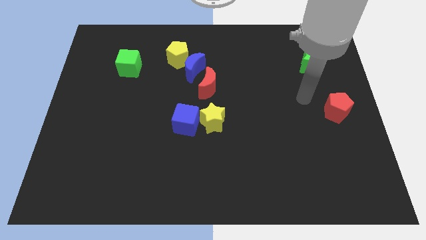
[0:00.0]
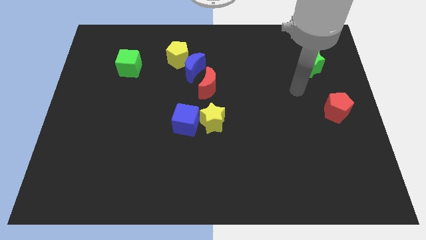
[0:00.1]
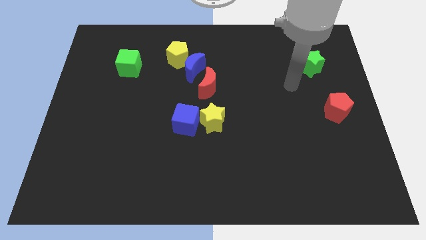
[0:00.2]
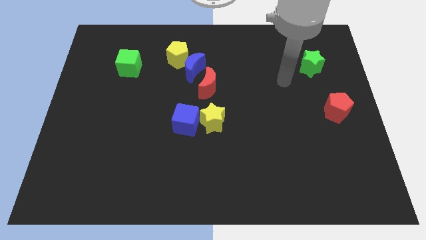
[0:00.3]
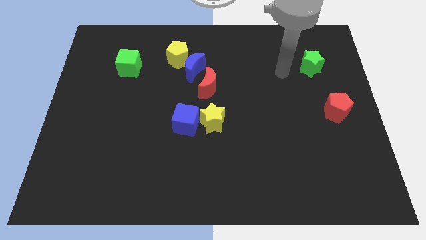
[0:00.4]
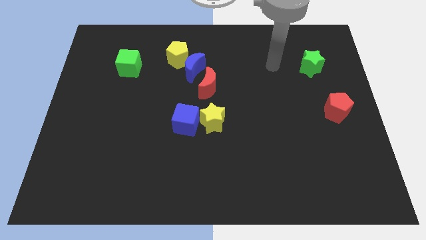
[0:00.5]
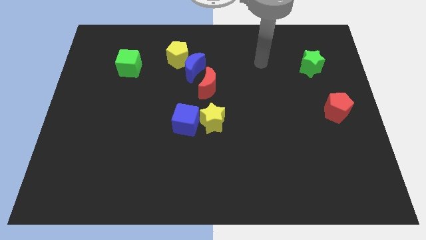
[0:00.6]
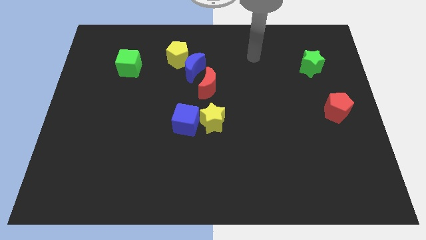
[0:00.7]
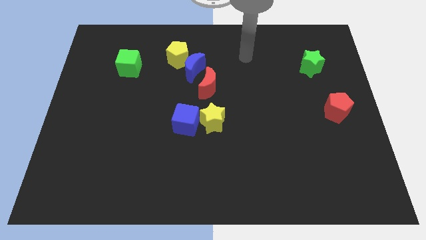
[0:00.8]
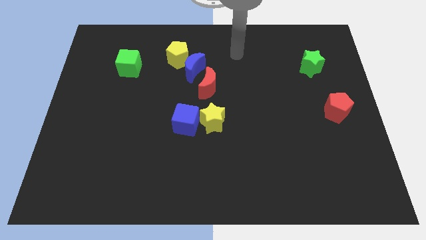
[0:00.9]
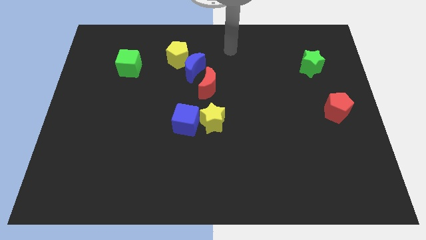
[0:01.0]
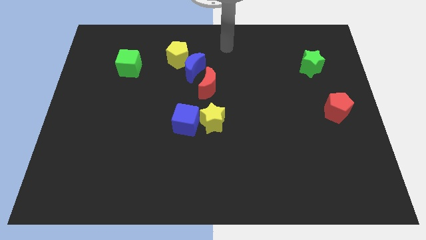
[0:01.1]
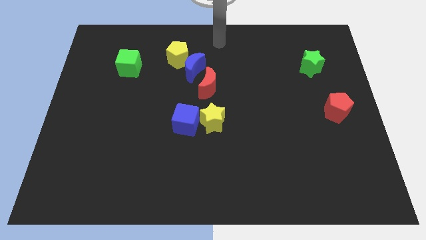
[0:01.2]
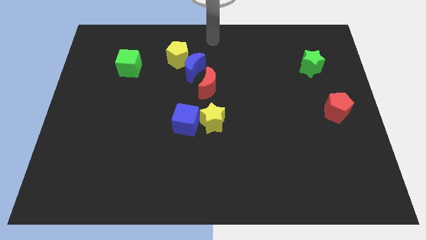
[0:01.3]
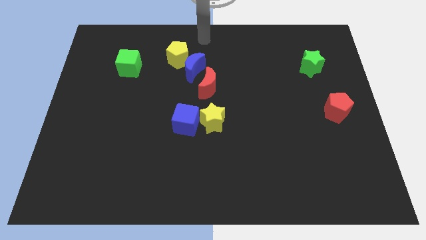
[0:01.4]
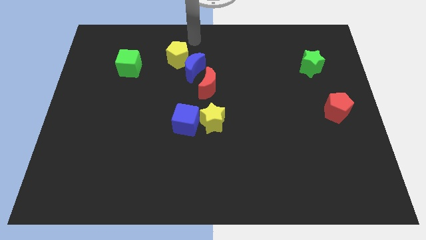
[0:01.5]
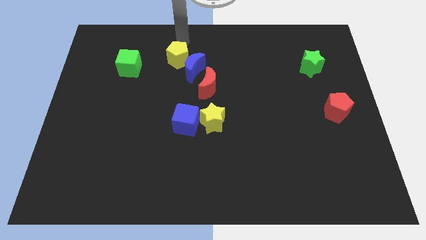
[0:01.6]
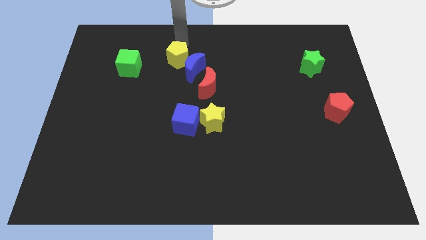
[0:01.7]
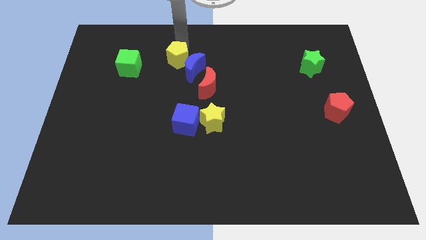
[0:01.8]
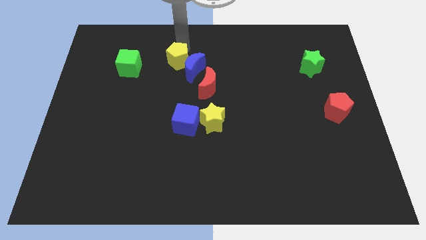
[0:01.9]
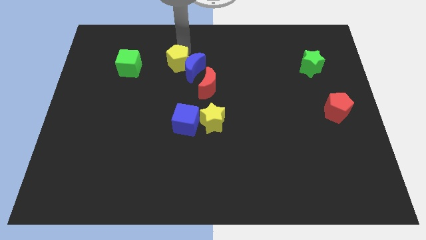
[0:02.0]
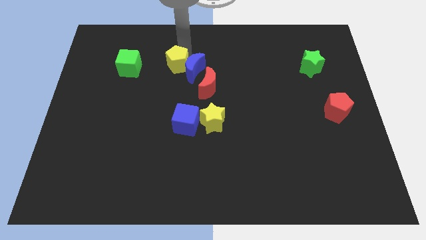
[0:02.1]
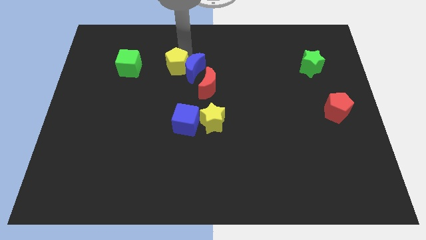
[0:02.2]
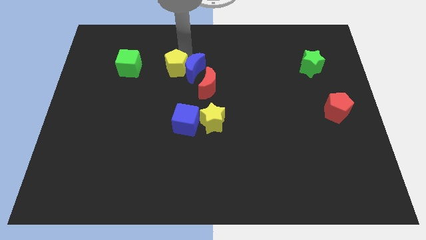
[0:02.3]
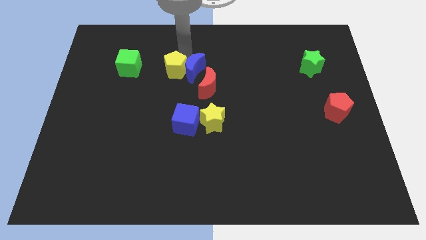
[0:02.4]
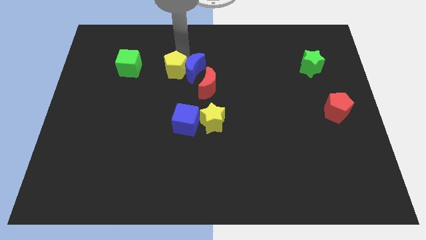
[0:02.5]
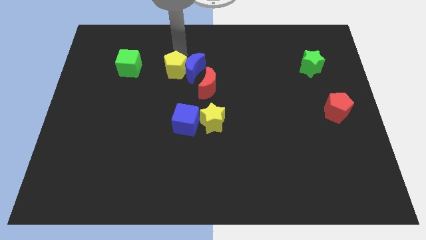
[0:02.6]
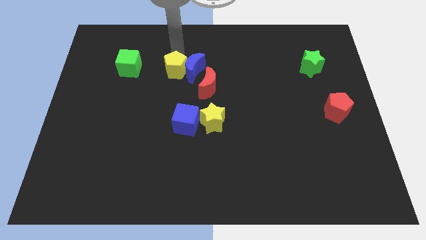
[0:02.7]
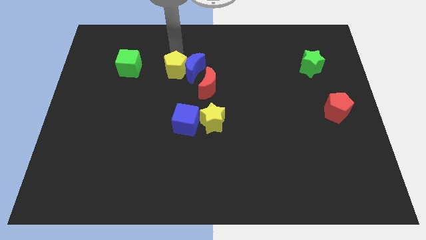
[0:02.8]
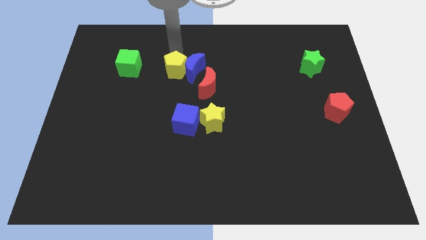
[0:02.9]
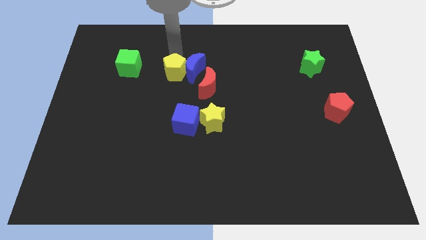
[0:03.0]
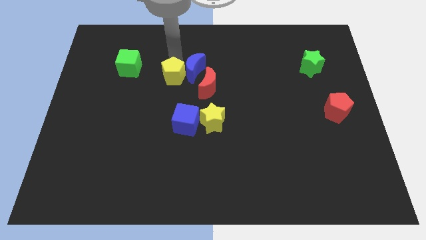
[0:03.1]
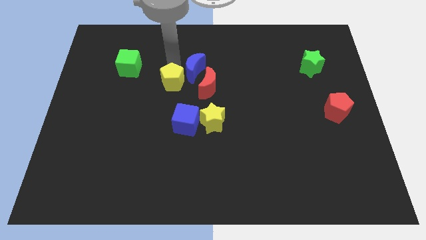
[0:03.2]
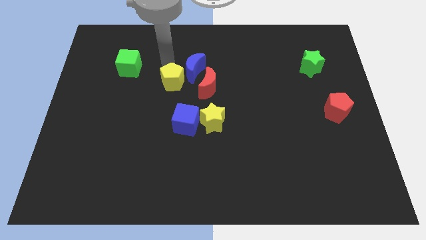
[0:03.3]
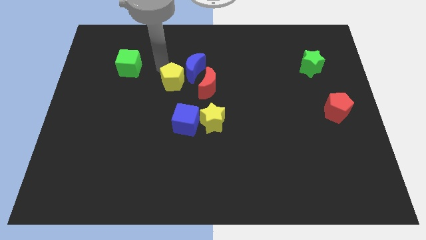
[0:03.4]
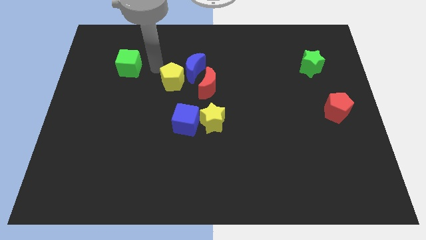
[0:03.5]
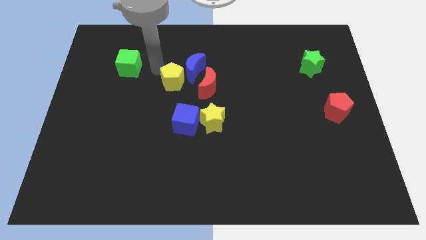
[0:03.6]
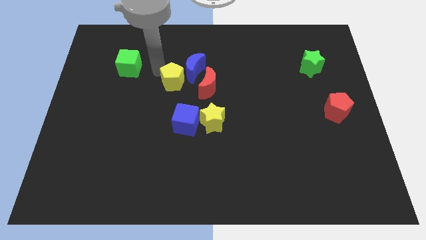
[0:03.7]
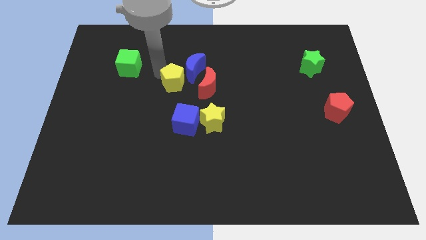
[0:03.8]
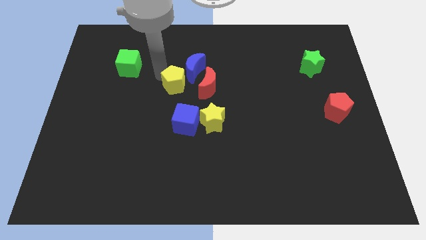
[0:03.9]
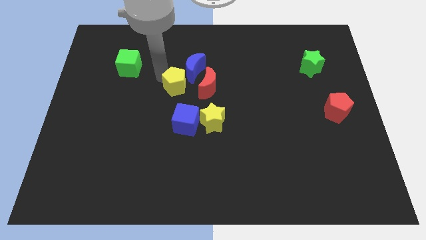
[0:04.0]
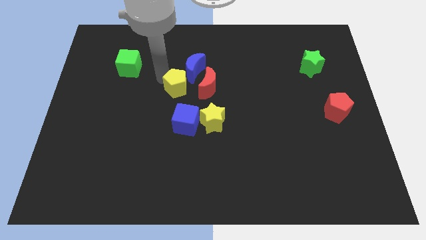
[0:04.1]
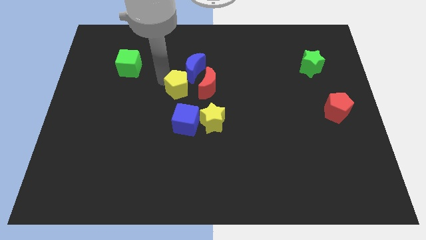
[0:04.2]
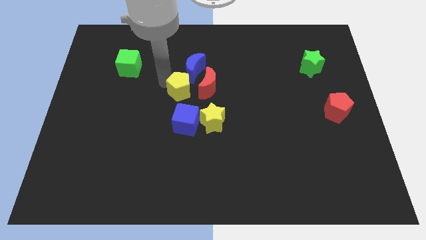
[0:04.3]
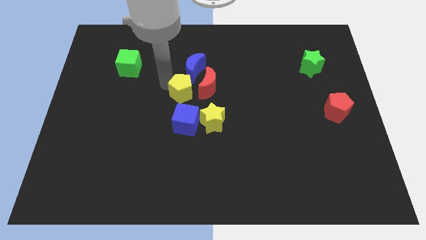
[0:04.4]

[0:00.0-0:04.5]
slide the yellow pentagon a little down and right

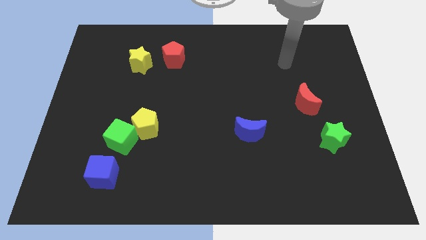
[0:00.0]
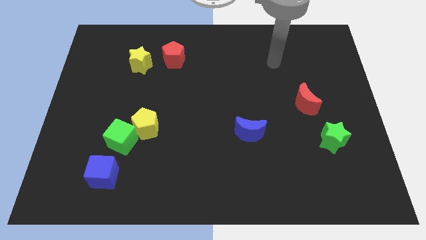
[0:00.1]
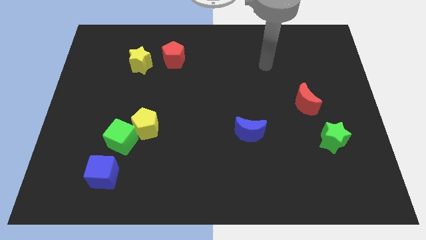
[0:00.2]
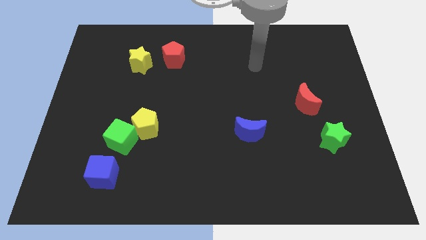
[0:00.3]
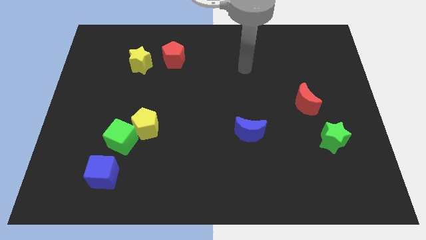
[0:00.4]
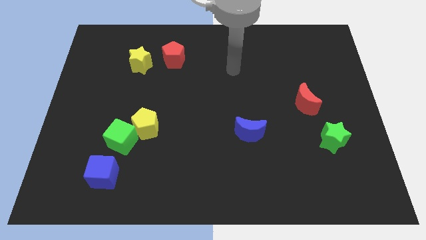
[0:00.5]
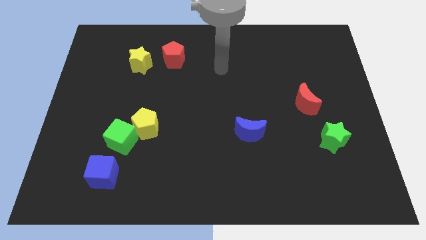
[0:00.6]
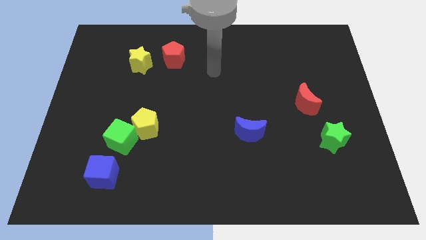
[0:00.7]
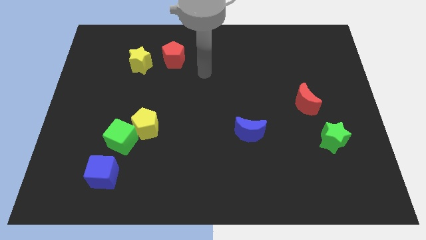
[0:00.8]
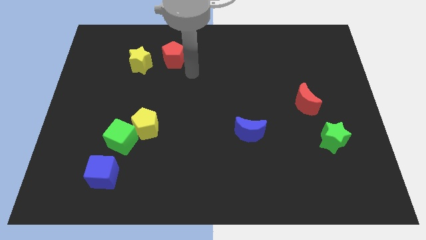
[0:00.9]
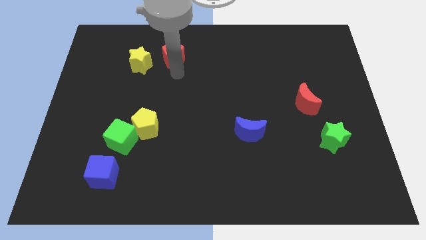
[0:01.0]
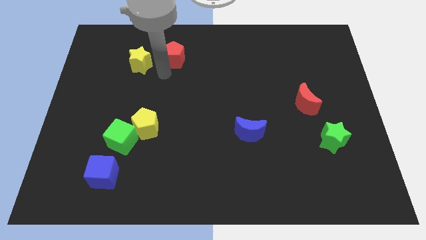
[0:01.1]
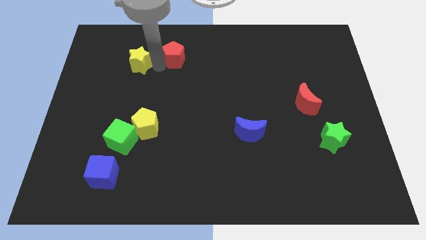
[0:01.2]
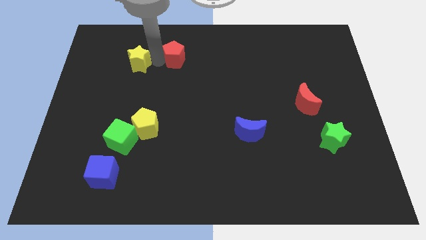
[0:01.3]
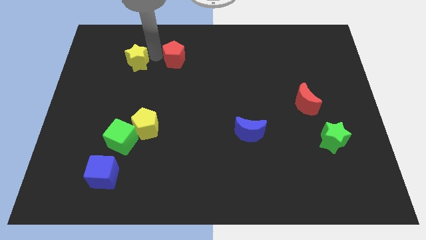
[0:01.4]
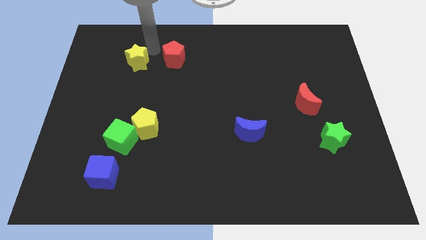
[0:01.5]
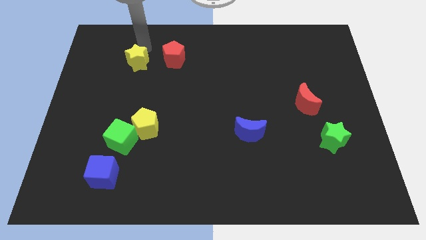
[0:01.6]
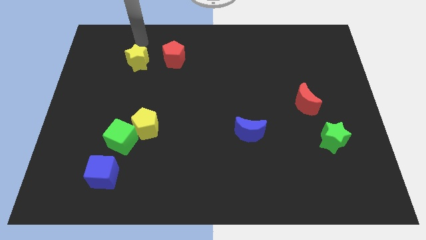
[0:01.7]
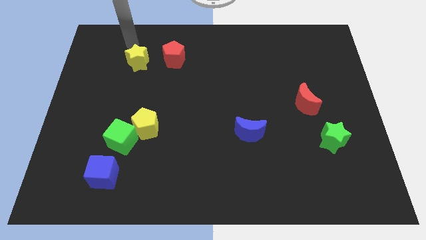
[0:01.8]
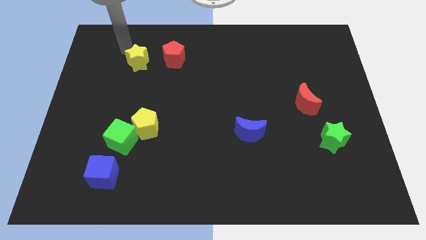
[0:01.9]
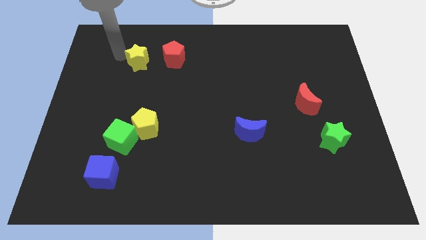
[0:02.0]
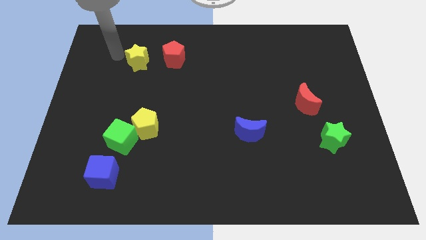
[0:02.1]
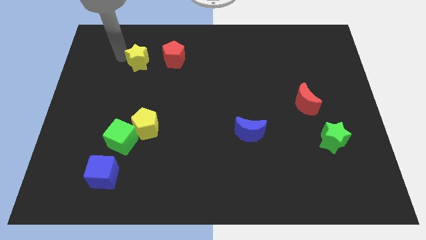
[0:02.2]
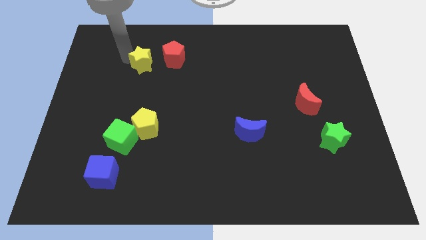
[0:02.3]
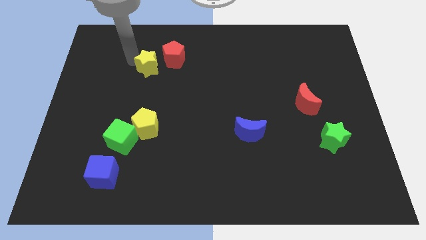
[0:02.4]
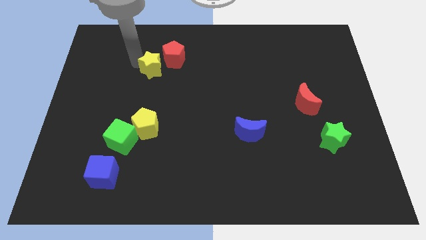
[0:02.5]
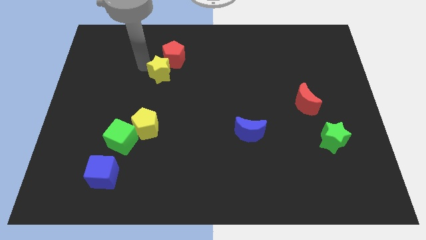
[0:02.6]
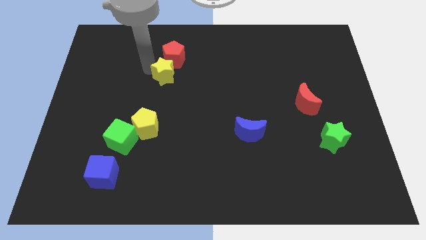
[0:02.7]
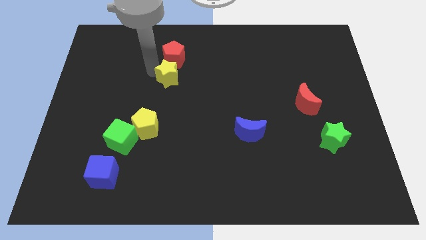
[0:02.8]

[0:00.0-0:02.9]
move the yellow star to the right a little bit

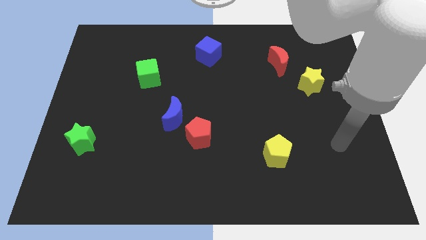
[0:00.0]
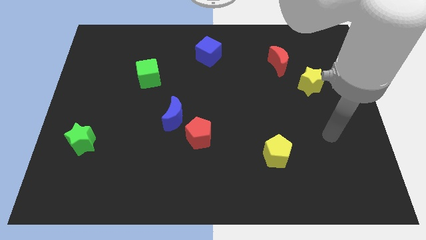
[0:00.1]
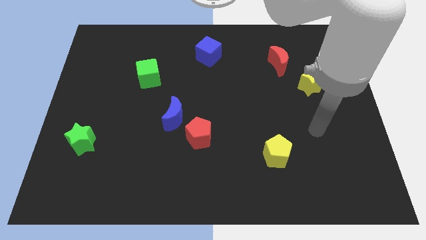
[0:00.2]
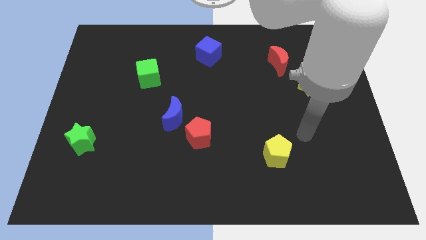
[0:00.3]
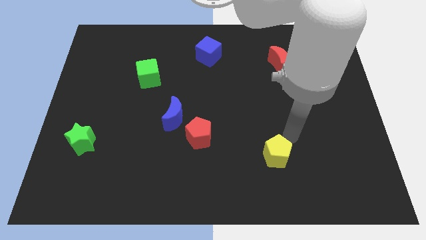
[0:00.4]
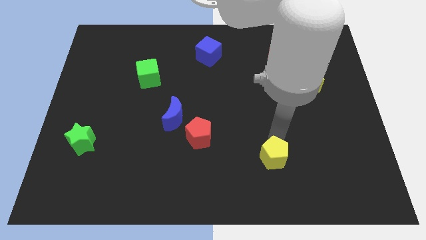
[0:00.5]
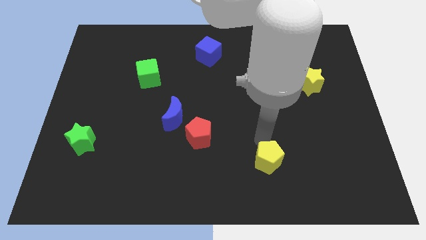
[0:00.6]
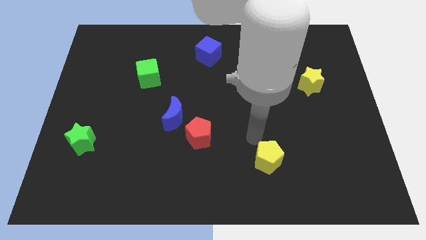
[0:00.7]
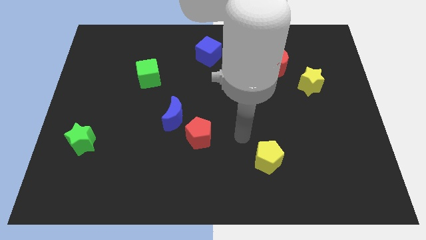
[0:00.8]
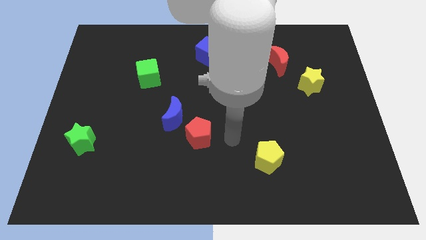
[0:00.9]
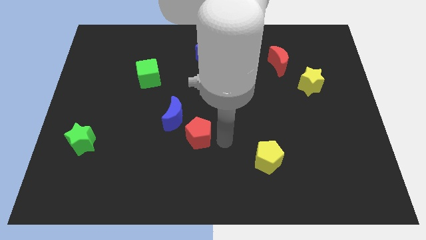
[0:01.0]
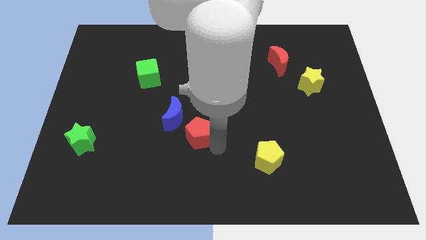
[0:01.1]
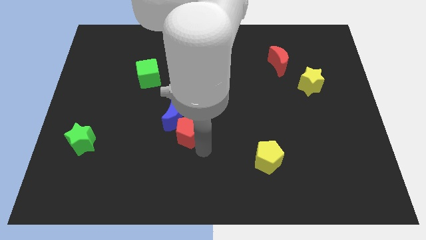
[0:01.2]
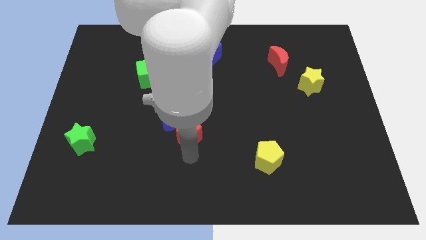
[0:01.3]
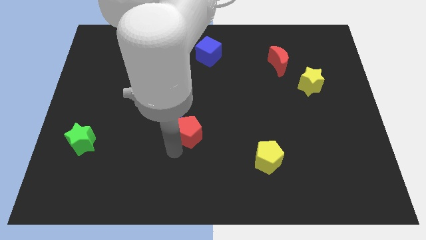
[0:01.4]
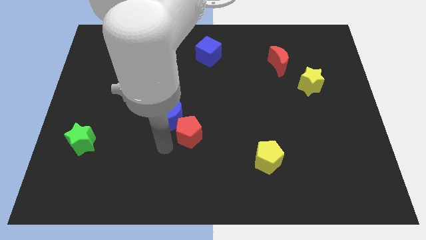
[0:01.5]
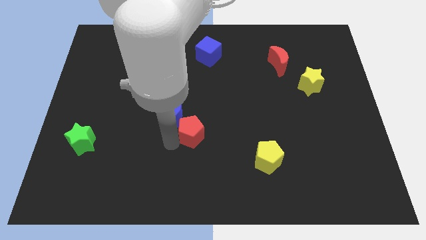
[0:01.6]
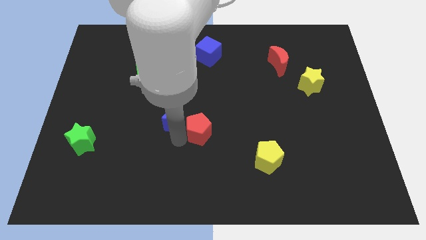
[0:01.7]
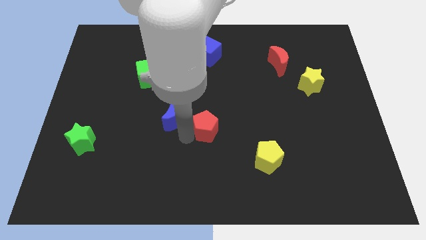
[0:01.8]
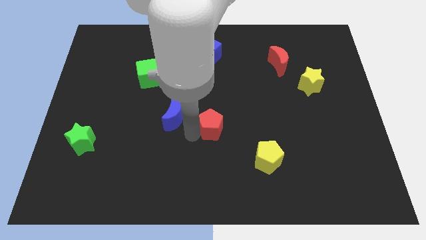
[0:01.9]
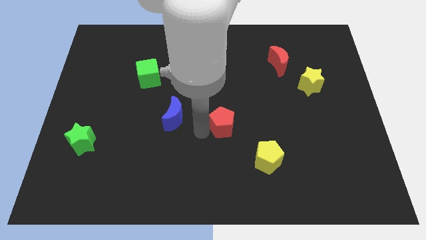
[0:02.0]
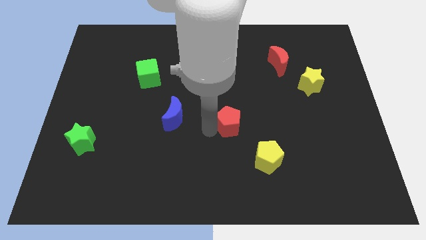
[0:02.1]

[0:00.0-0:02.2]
slightly slide the red pentagon up and to the right diagonally
